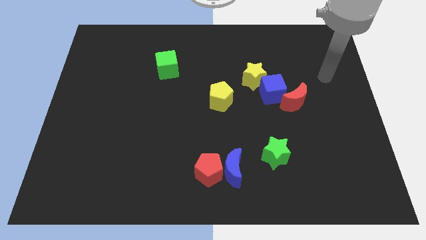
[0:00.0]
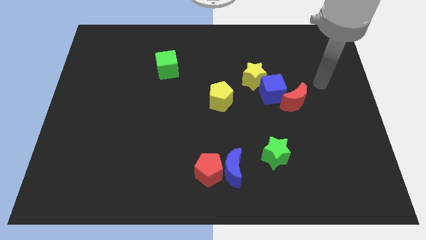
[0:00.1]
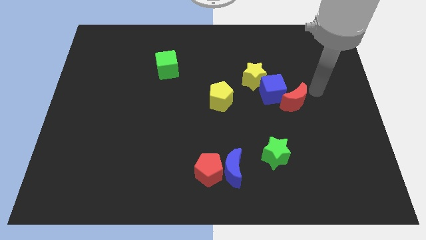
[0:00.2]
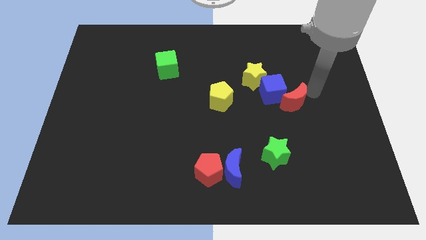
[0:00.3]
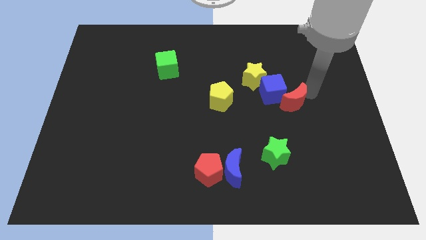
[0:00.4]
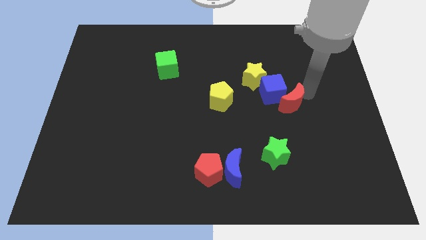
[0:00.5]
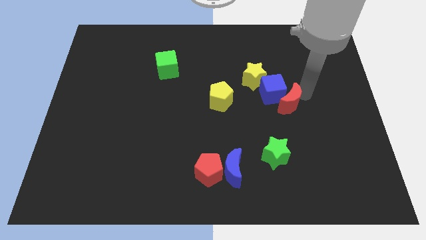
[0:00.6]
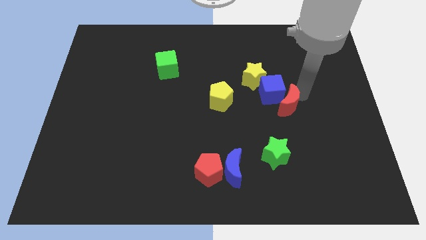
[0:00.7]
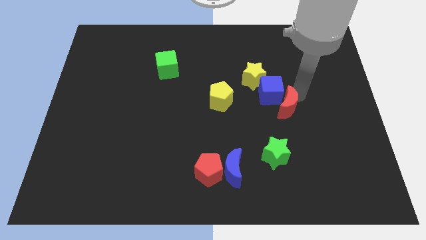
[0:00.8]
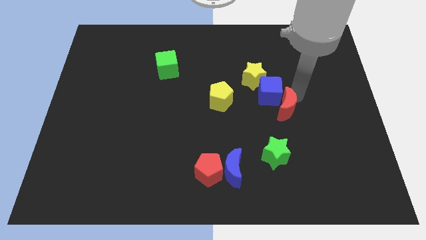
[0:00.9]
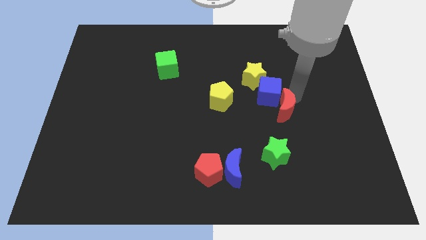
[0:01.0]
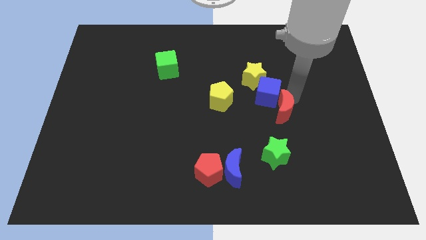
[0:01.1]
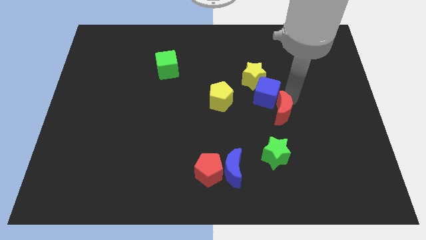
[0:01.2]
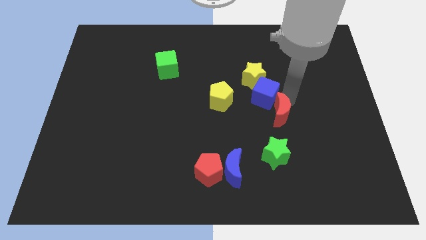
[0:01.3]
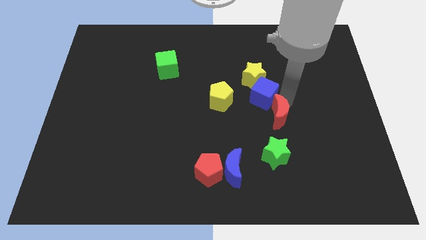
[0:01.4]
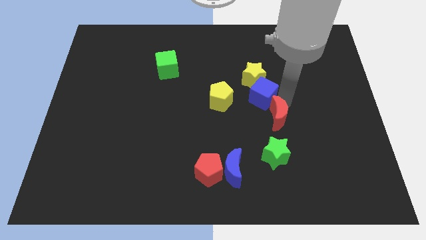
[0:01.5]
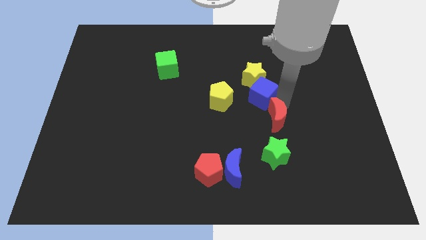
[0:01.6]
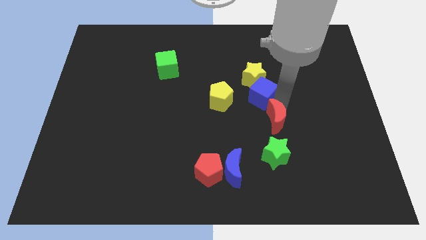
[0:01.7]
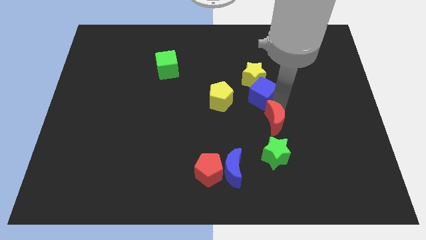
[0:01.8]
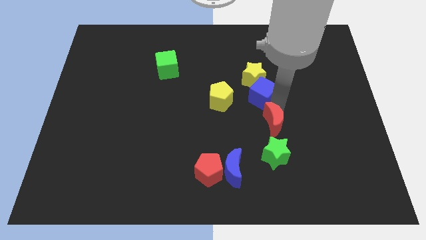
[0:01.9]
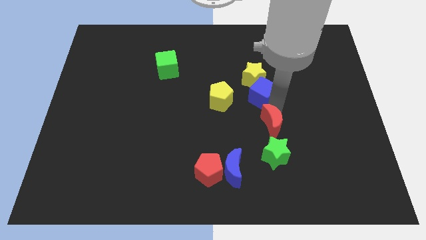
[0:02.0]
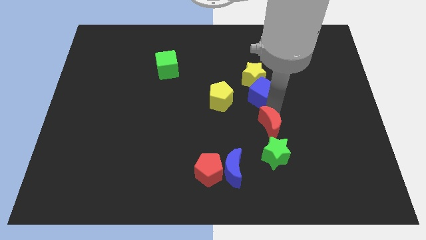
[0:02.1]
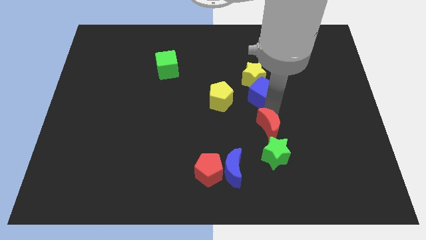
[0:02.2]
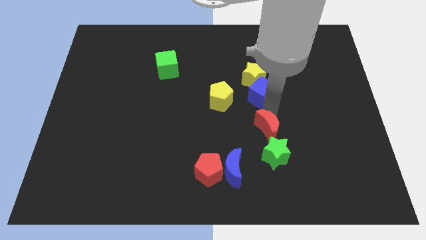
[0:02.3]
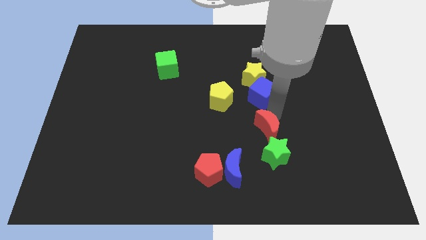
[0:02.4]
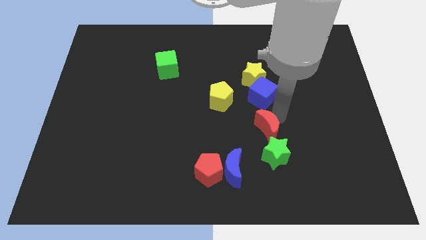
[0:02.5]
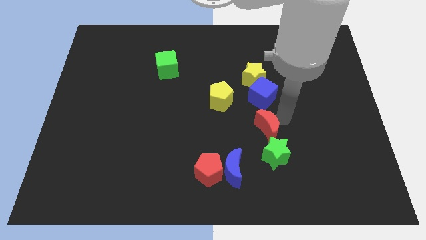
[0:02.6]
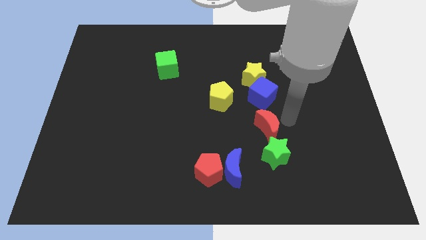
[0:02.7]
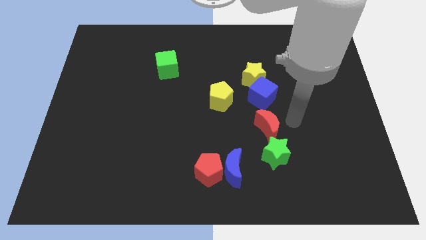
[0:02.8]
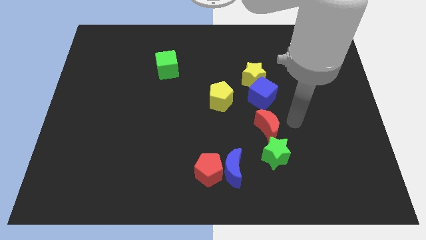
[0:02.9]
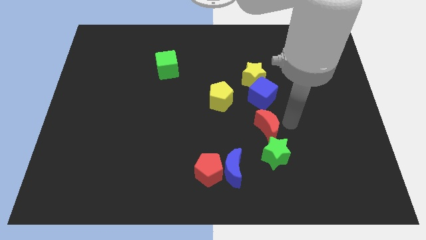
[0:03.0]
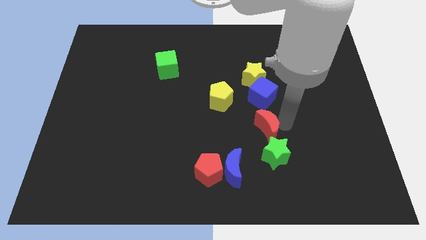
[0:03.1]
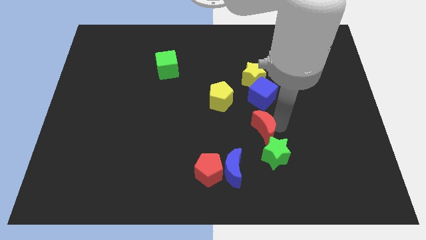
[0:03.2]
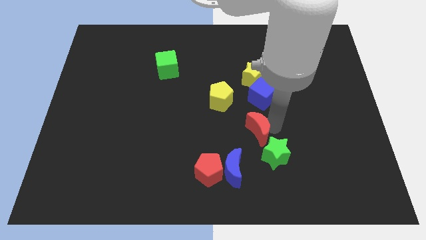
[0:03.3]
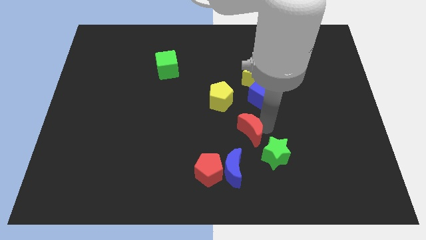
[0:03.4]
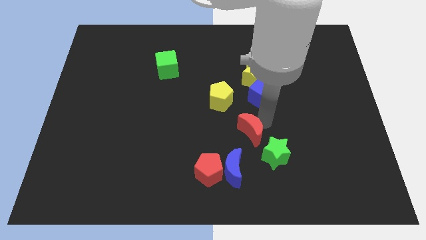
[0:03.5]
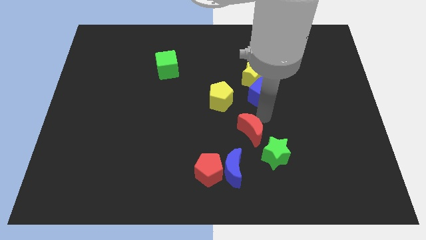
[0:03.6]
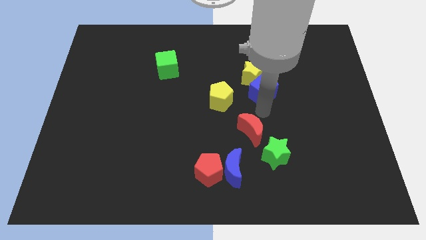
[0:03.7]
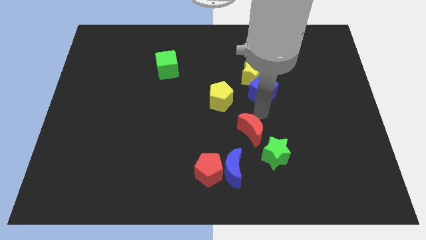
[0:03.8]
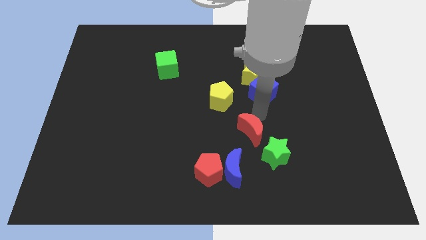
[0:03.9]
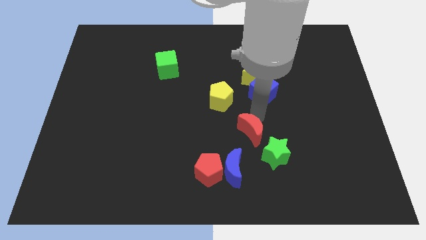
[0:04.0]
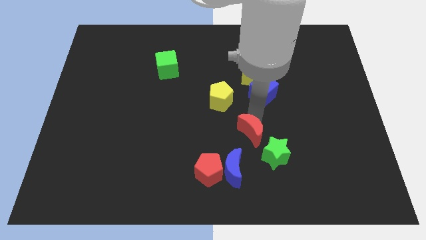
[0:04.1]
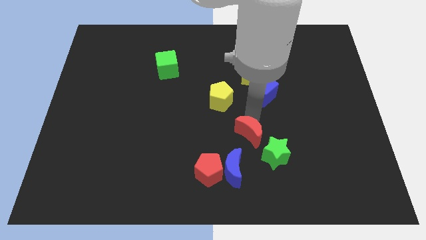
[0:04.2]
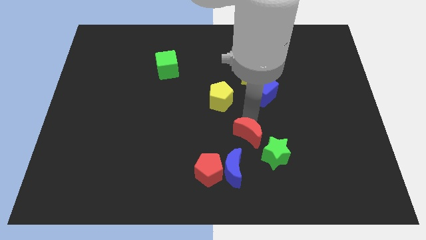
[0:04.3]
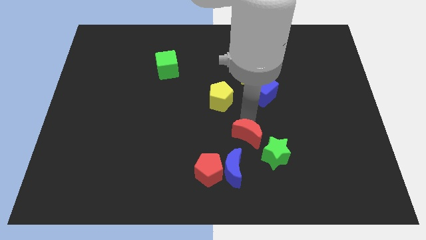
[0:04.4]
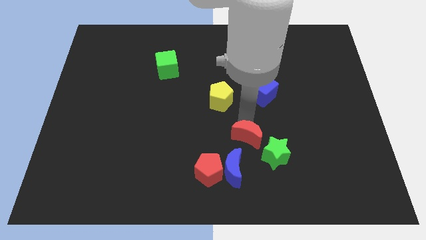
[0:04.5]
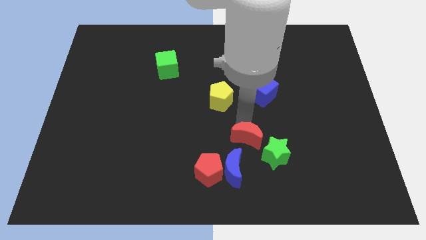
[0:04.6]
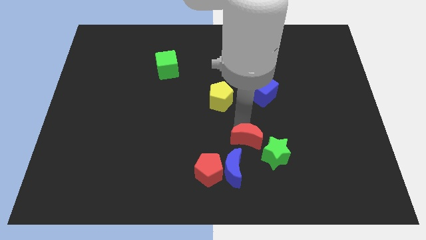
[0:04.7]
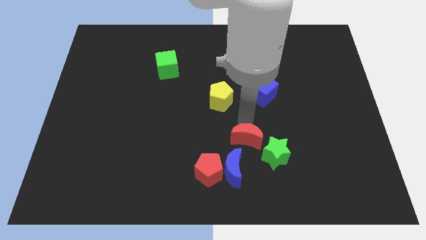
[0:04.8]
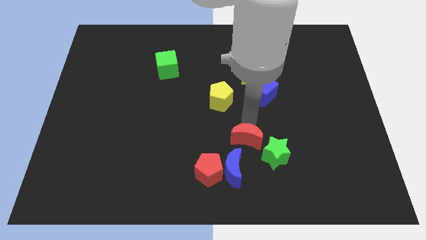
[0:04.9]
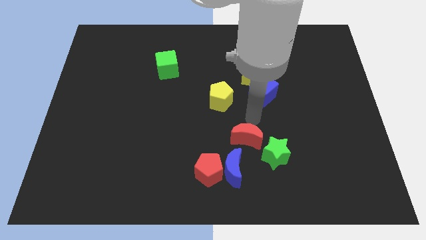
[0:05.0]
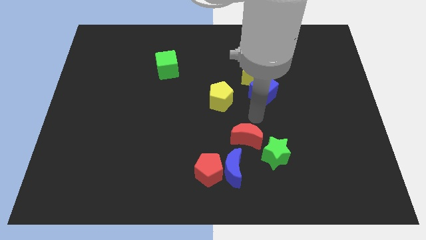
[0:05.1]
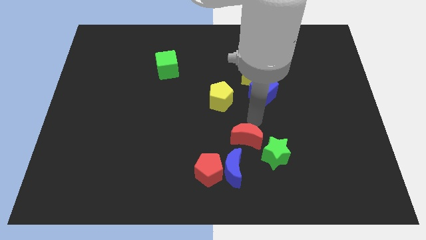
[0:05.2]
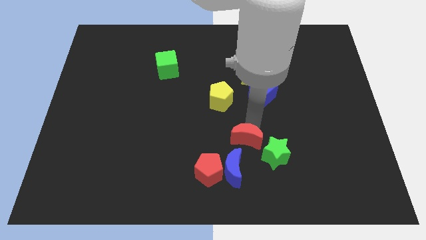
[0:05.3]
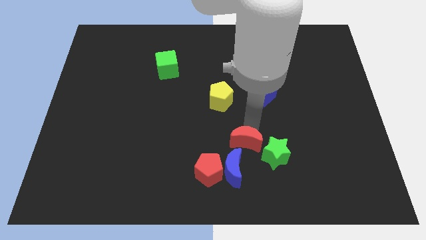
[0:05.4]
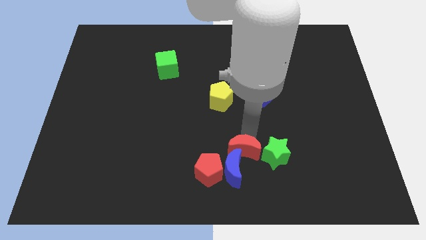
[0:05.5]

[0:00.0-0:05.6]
push the red moon towards the blue moon

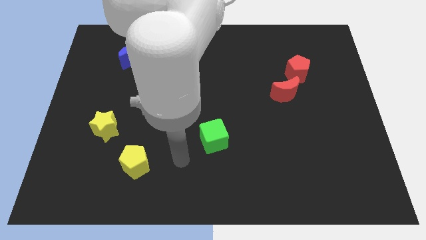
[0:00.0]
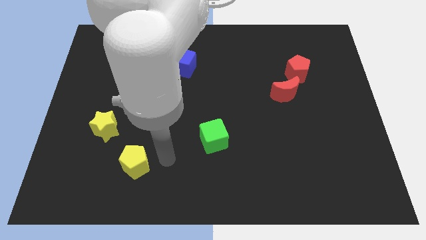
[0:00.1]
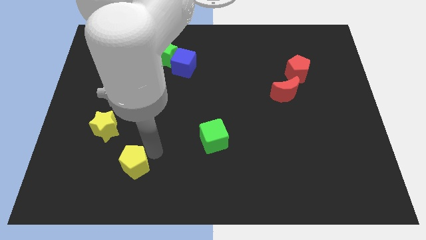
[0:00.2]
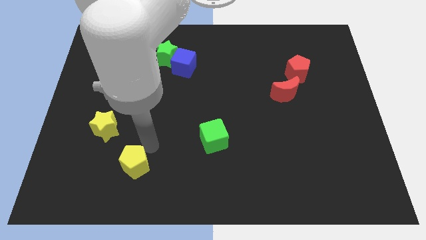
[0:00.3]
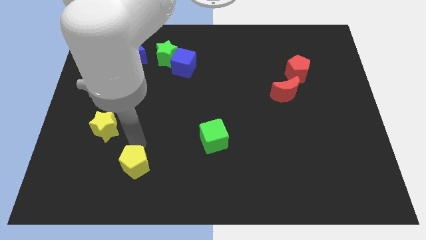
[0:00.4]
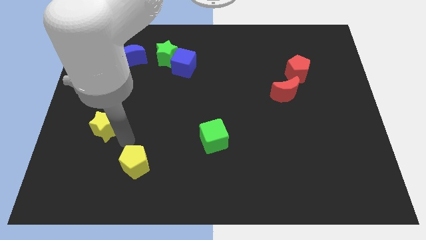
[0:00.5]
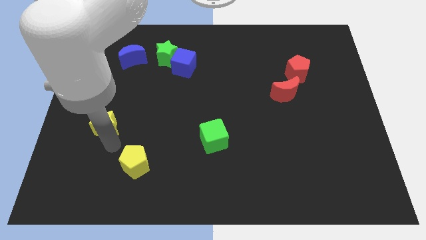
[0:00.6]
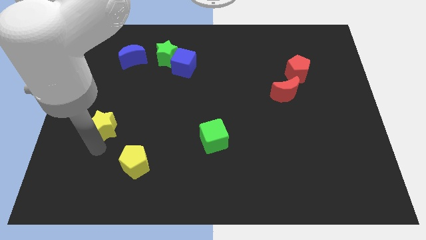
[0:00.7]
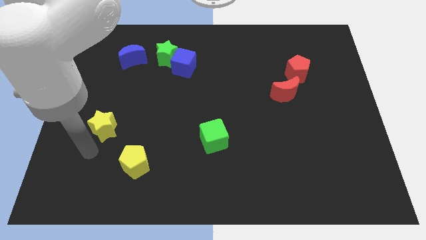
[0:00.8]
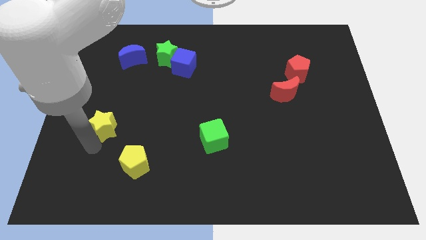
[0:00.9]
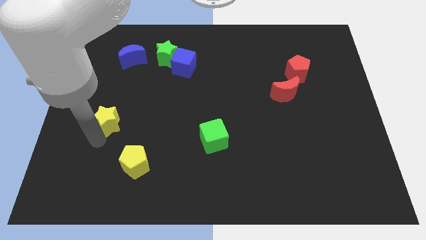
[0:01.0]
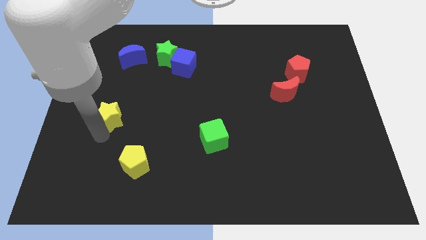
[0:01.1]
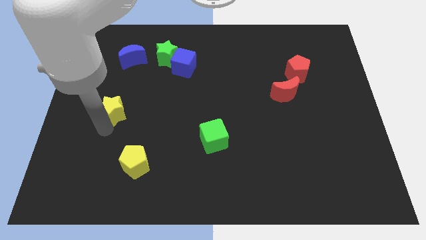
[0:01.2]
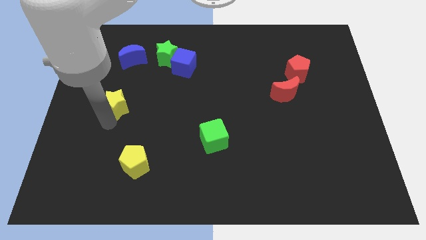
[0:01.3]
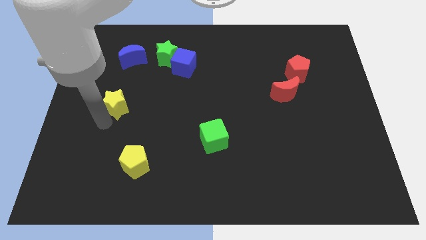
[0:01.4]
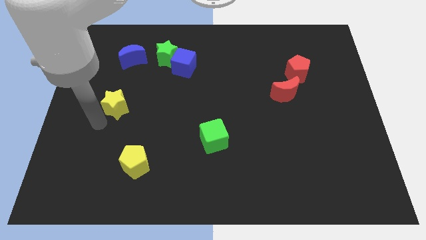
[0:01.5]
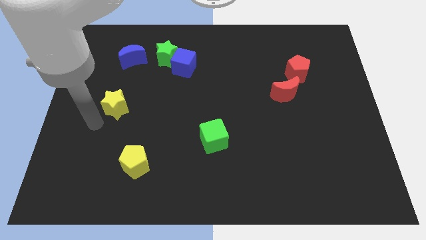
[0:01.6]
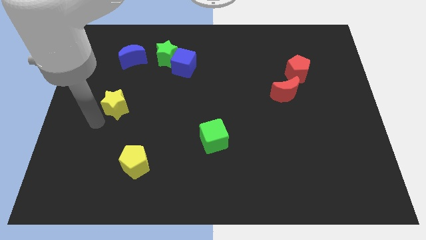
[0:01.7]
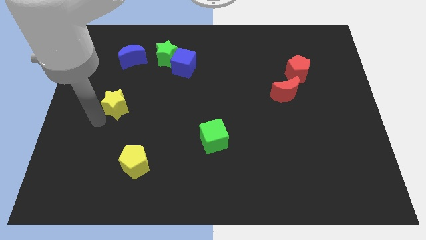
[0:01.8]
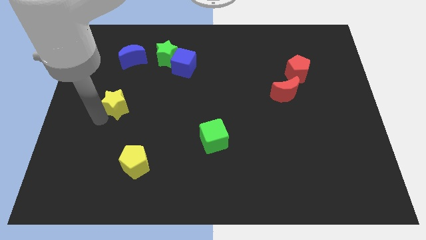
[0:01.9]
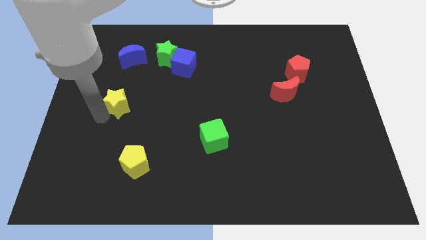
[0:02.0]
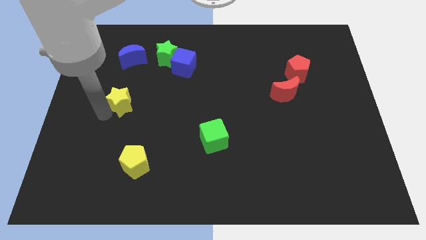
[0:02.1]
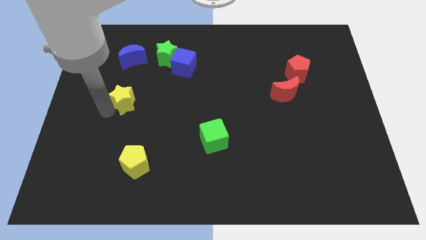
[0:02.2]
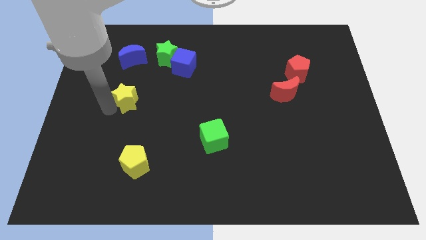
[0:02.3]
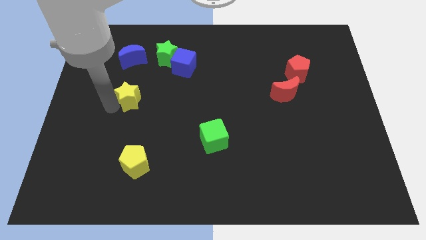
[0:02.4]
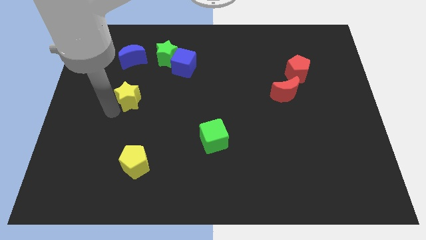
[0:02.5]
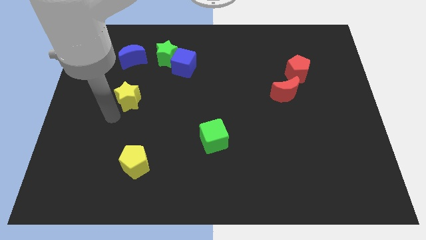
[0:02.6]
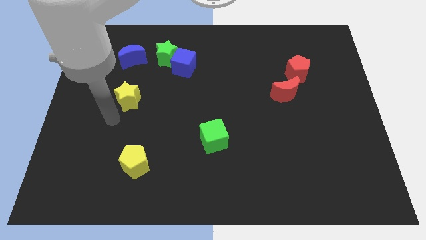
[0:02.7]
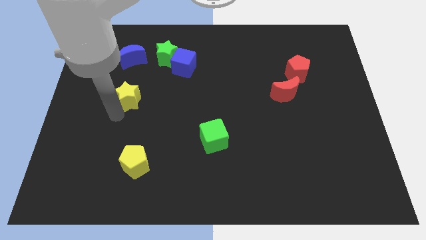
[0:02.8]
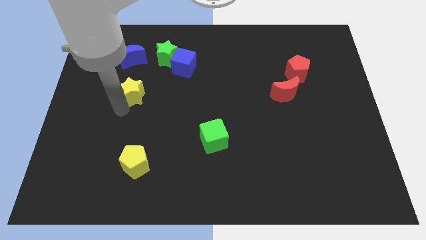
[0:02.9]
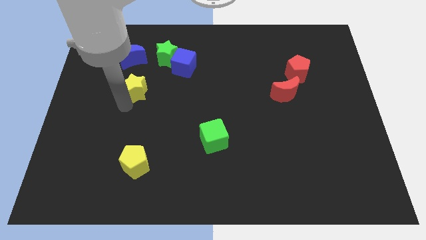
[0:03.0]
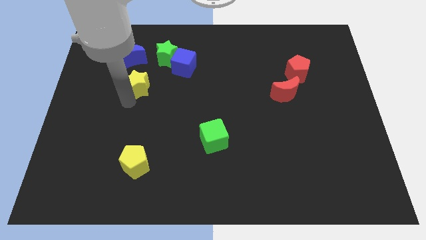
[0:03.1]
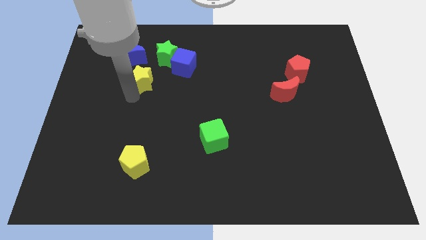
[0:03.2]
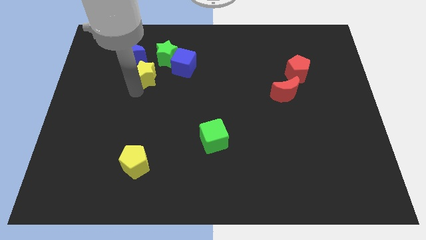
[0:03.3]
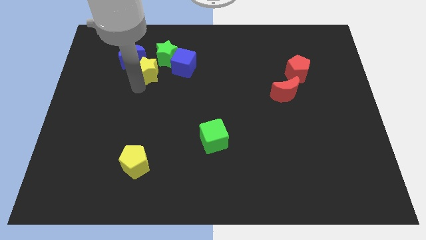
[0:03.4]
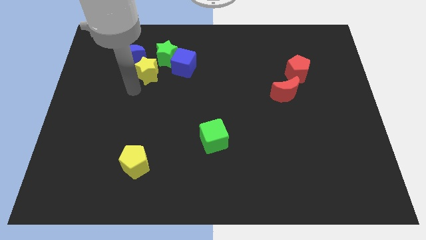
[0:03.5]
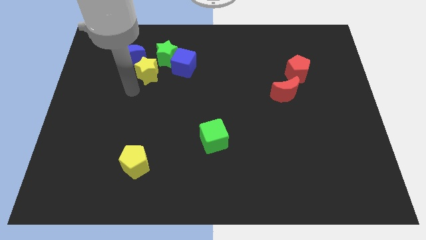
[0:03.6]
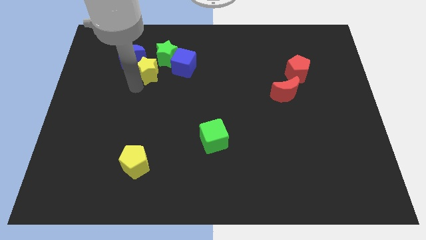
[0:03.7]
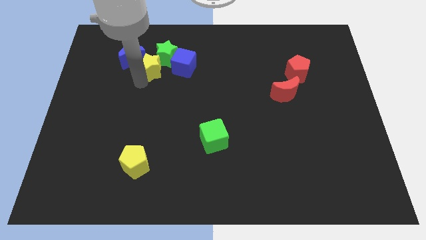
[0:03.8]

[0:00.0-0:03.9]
slide the yellow star to the green star
